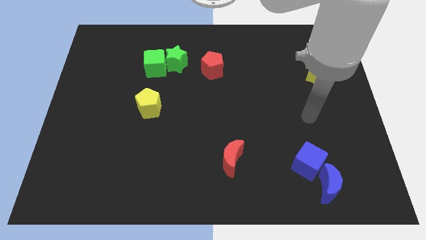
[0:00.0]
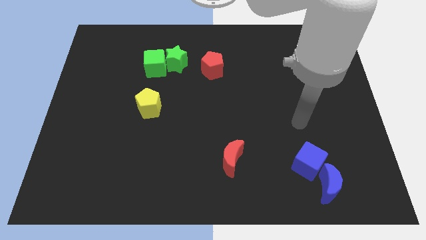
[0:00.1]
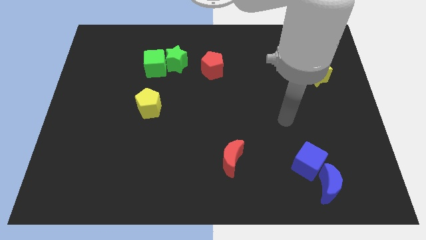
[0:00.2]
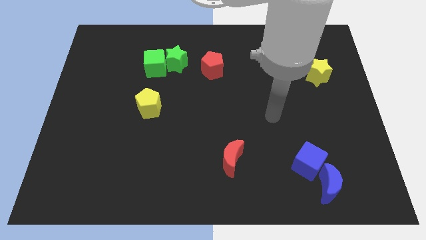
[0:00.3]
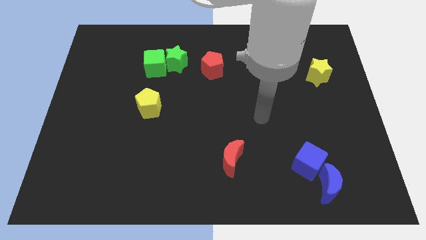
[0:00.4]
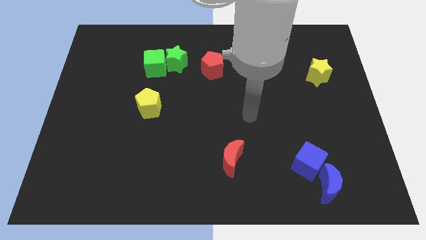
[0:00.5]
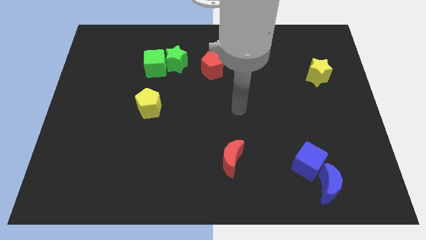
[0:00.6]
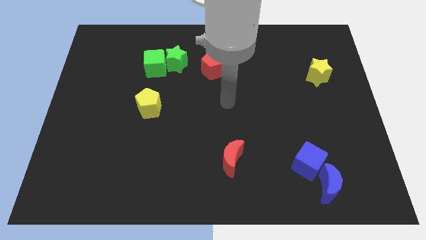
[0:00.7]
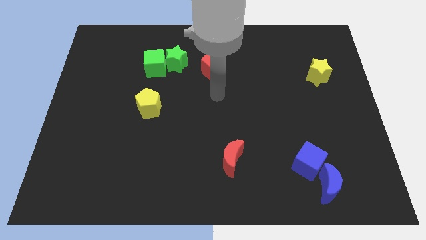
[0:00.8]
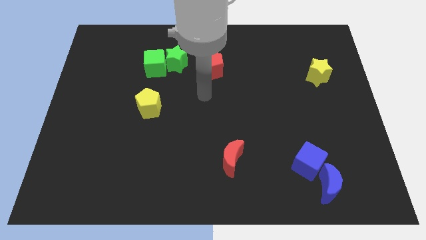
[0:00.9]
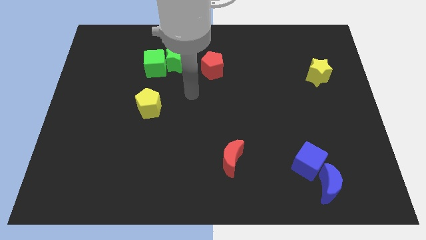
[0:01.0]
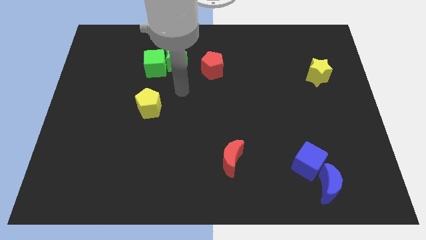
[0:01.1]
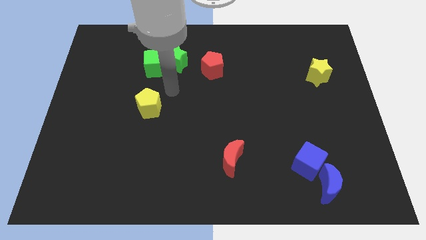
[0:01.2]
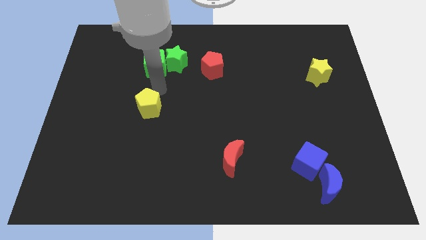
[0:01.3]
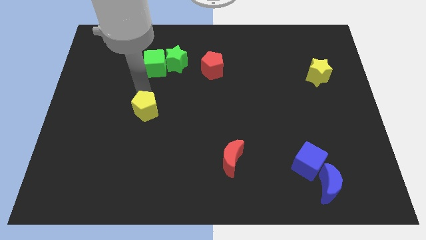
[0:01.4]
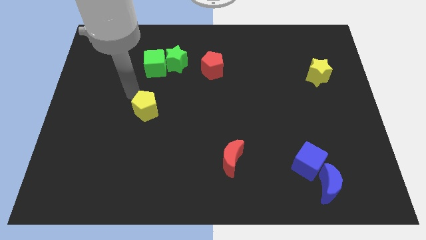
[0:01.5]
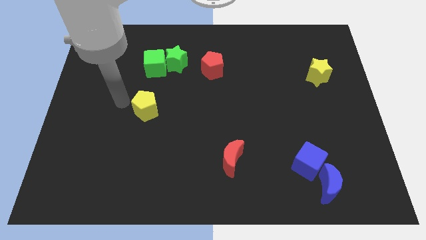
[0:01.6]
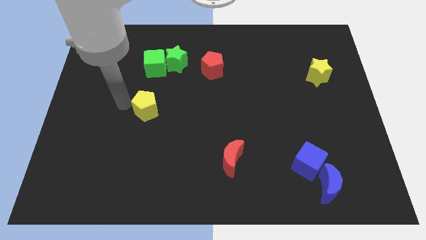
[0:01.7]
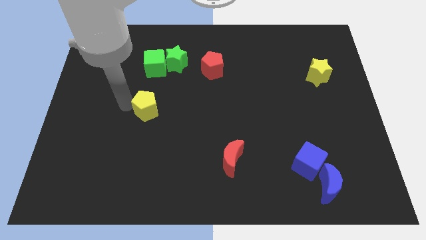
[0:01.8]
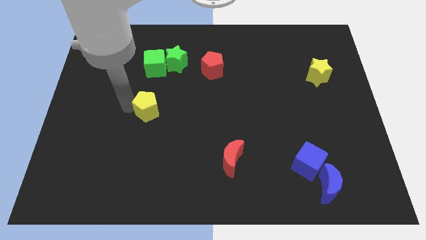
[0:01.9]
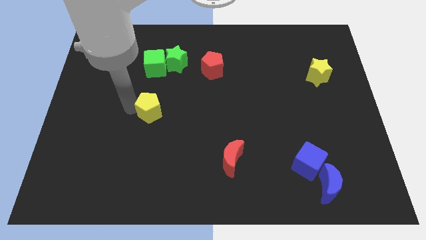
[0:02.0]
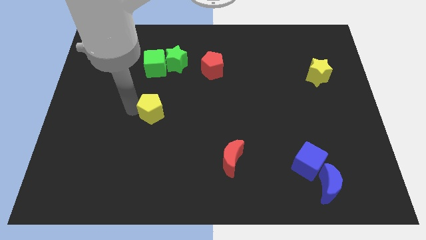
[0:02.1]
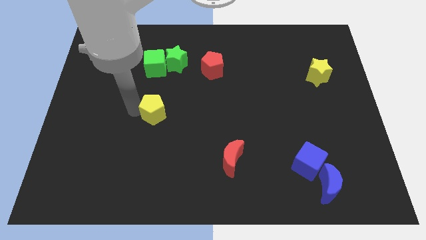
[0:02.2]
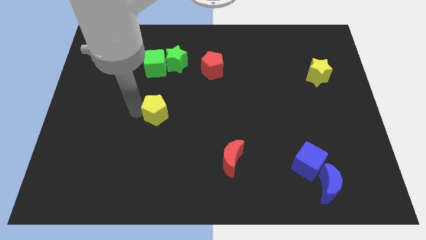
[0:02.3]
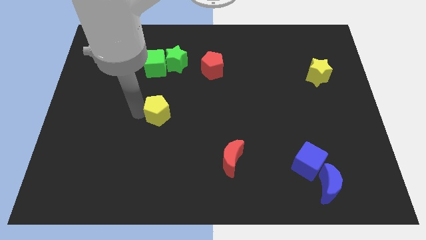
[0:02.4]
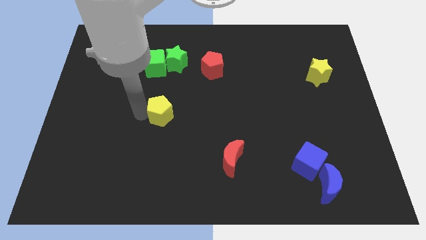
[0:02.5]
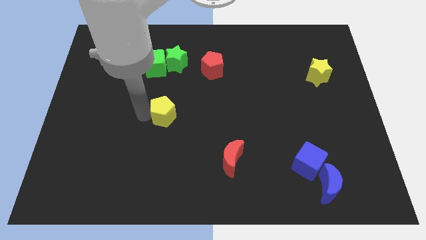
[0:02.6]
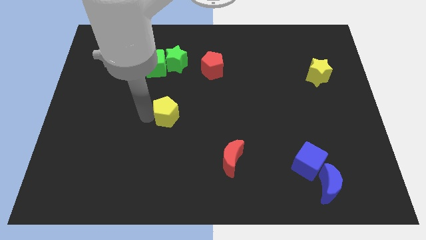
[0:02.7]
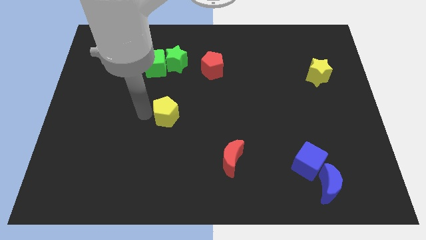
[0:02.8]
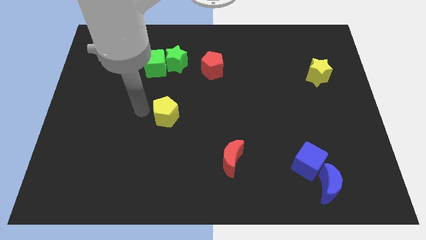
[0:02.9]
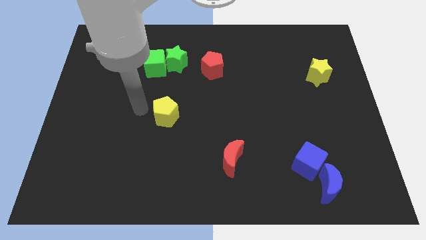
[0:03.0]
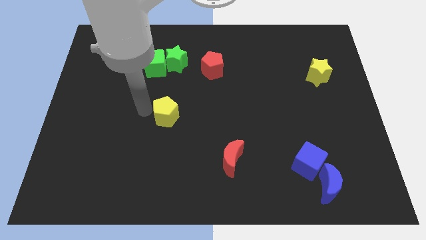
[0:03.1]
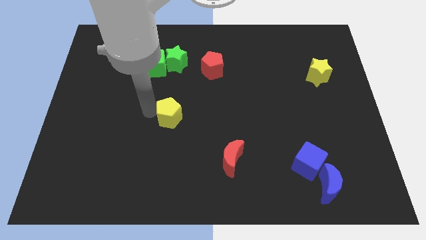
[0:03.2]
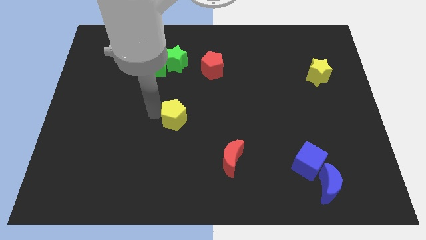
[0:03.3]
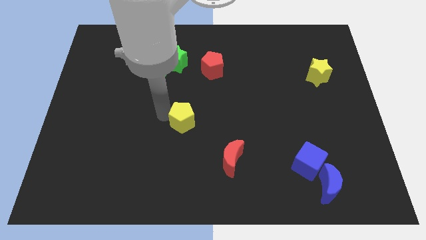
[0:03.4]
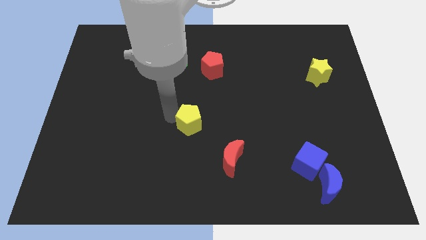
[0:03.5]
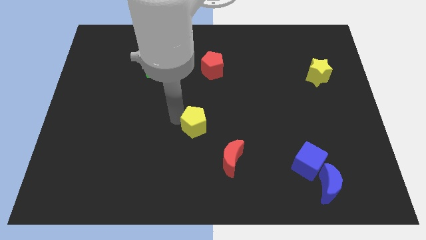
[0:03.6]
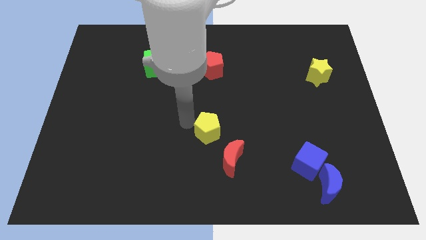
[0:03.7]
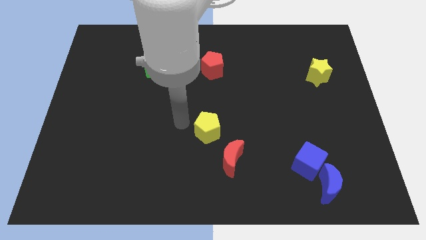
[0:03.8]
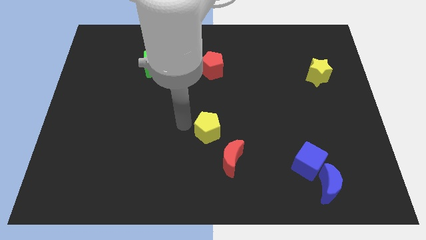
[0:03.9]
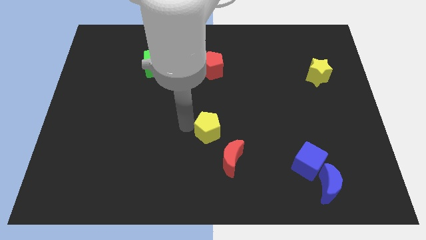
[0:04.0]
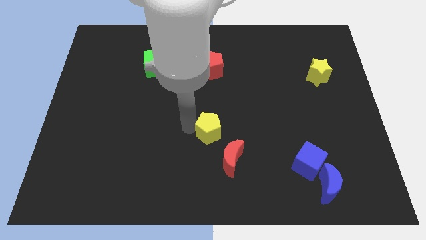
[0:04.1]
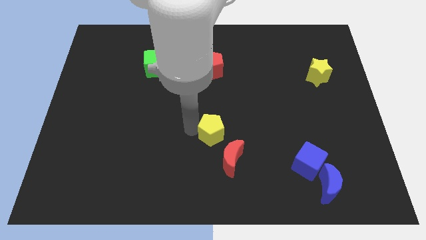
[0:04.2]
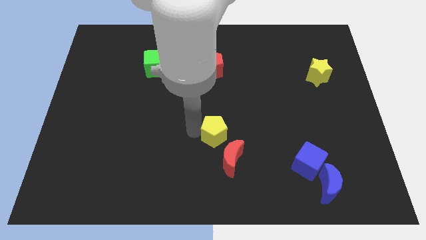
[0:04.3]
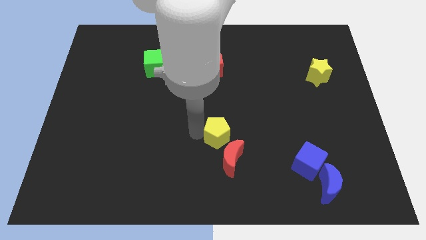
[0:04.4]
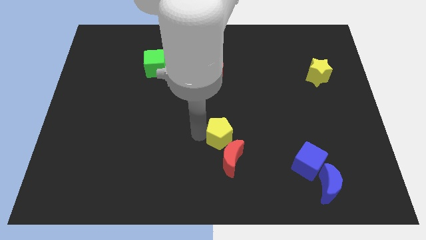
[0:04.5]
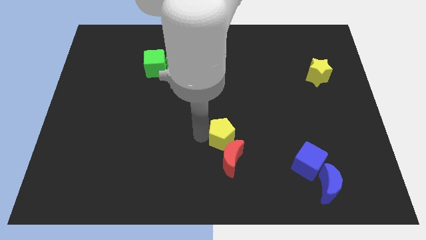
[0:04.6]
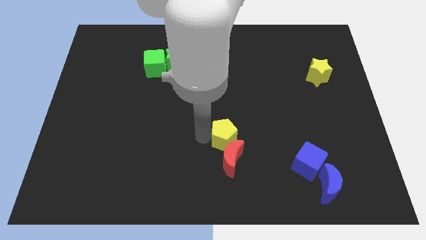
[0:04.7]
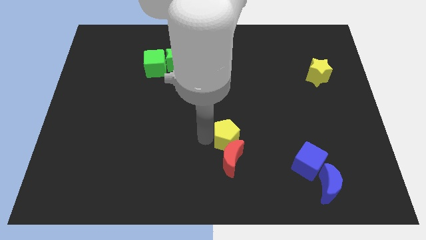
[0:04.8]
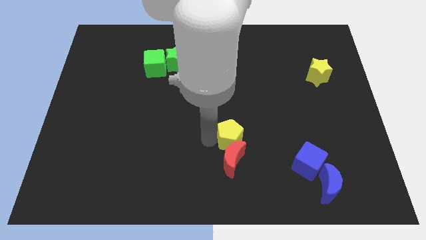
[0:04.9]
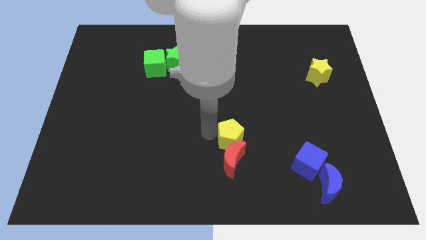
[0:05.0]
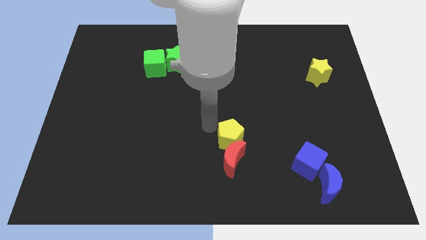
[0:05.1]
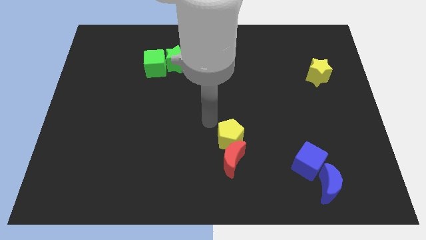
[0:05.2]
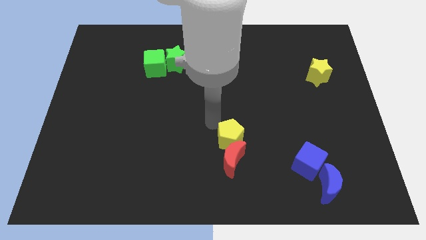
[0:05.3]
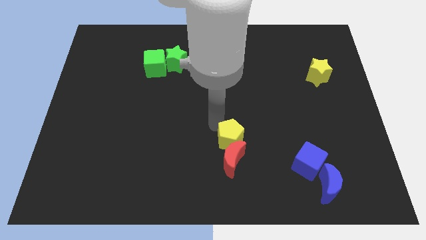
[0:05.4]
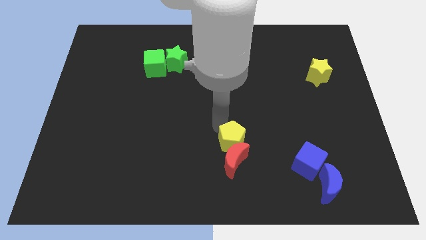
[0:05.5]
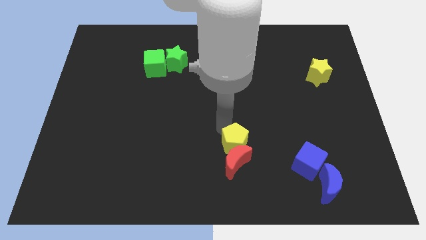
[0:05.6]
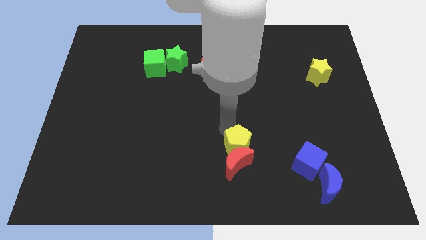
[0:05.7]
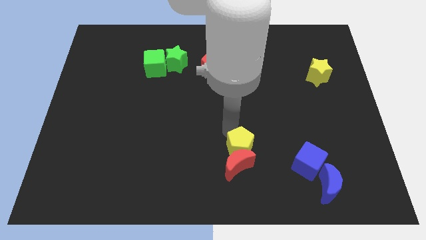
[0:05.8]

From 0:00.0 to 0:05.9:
move the yellow pentagon to the left of the blue cube

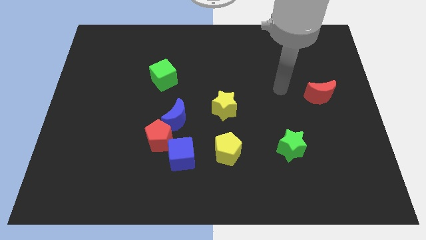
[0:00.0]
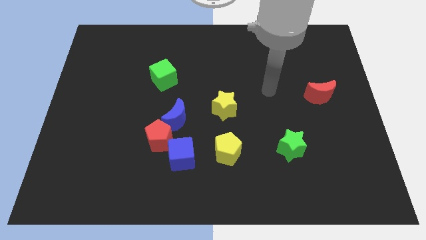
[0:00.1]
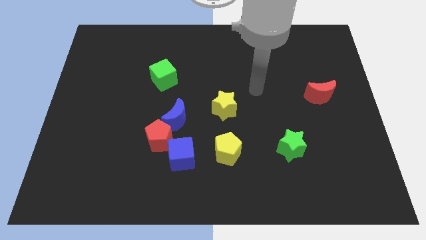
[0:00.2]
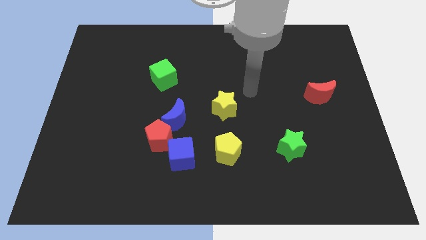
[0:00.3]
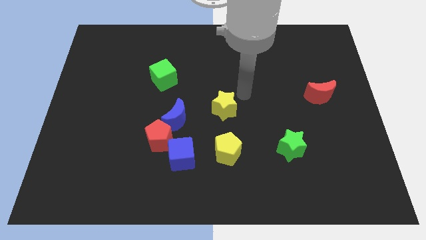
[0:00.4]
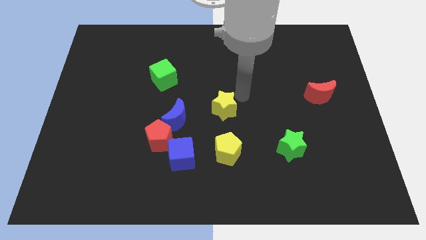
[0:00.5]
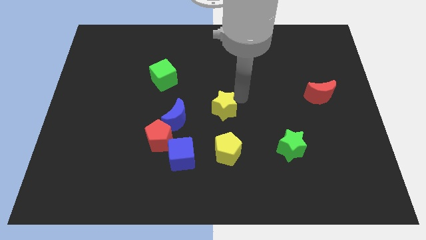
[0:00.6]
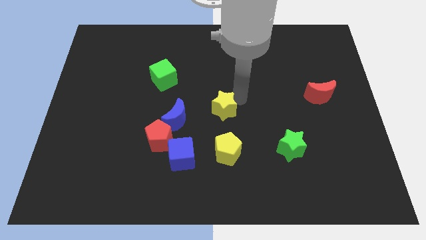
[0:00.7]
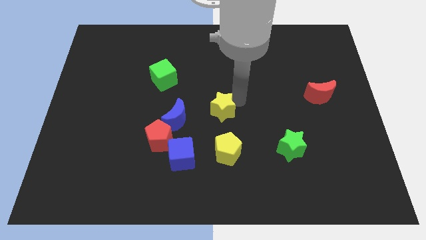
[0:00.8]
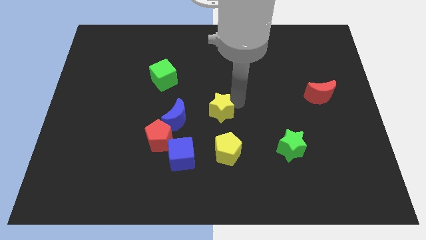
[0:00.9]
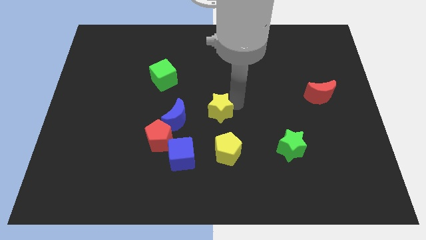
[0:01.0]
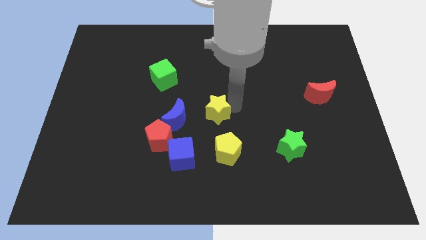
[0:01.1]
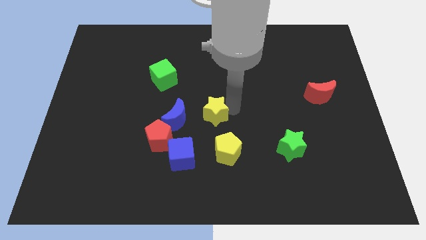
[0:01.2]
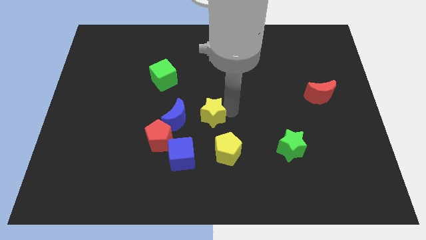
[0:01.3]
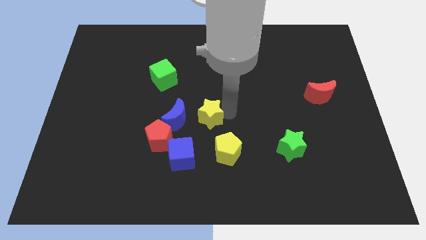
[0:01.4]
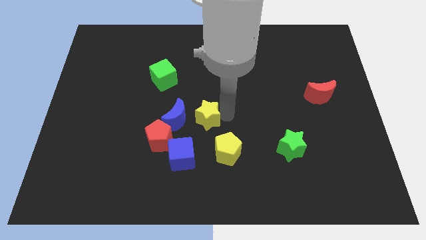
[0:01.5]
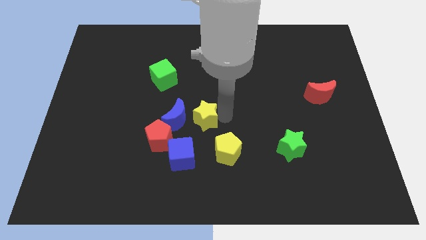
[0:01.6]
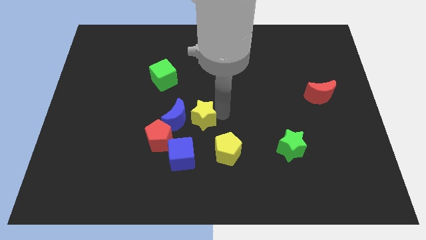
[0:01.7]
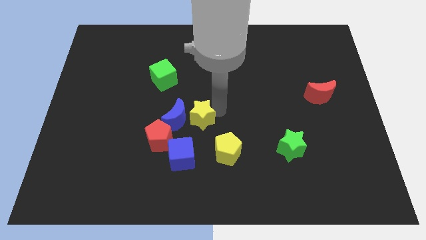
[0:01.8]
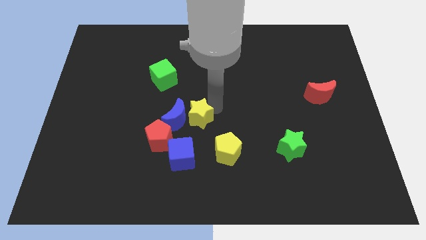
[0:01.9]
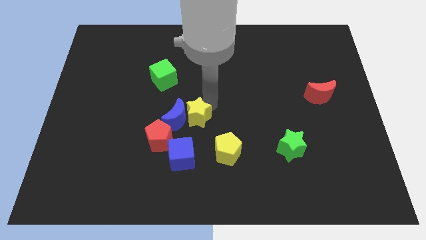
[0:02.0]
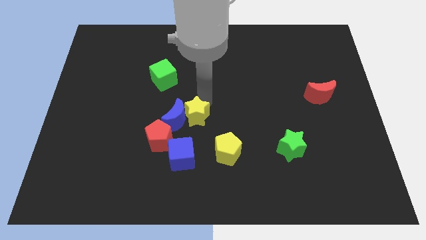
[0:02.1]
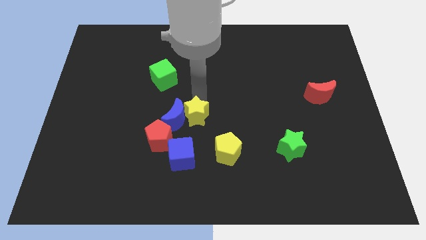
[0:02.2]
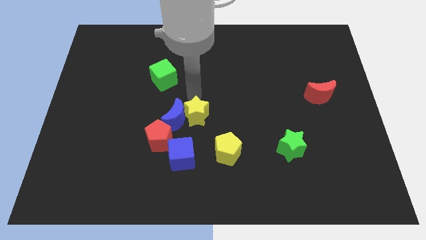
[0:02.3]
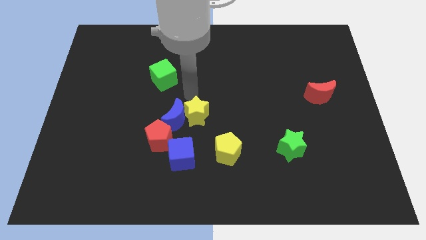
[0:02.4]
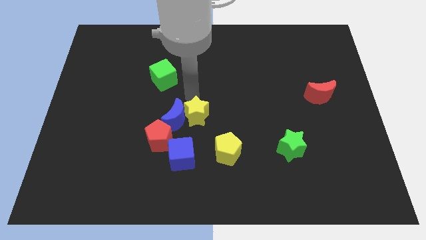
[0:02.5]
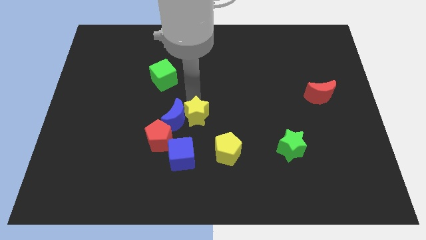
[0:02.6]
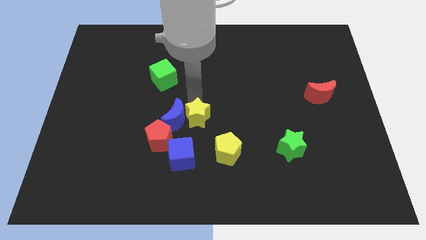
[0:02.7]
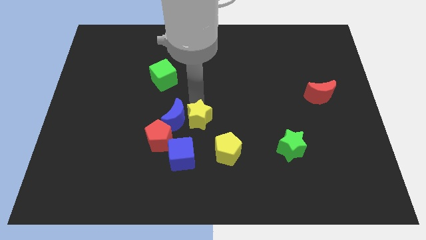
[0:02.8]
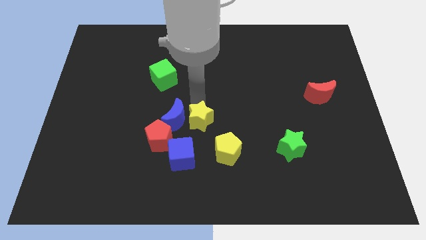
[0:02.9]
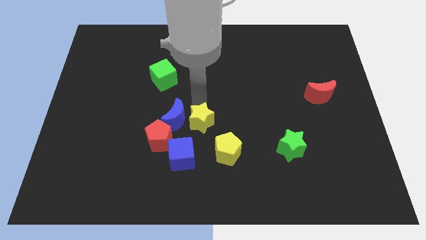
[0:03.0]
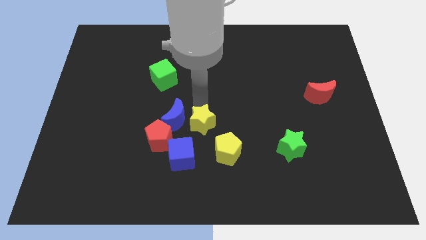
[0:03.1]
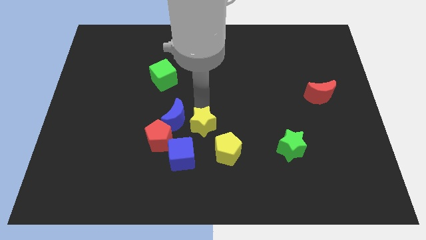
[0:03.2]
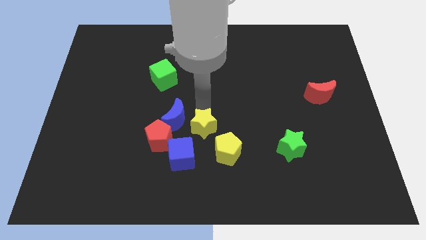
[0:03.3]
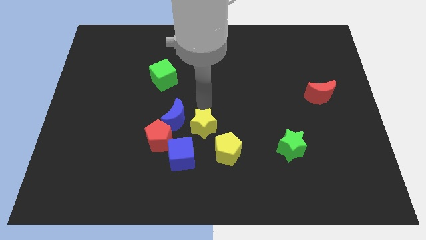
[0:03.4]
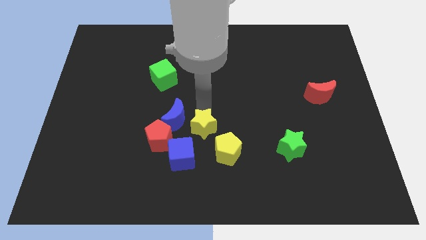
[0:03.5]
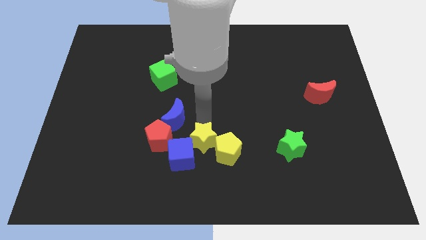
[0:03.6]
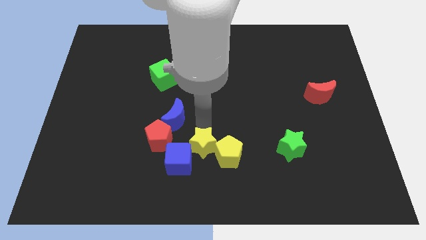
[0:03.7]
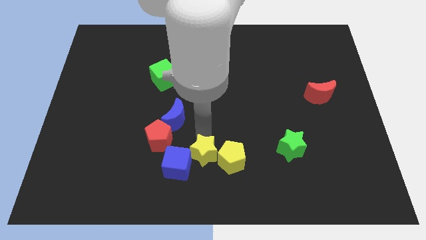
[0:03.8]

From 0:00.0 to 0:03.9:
put the yellow star to the bottom left side of the yellow pentagon
